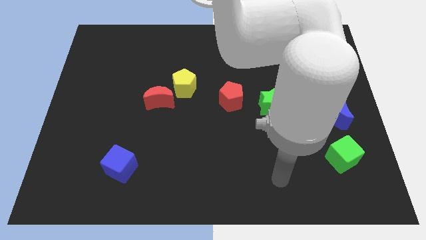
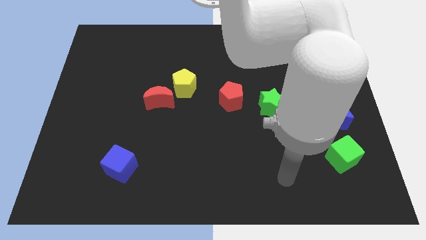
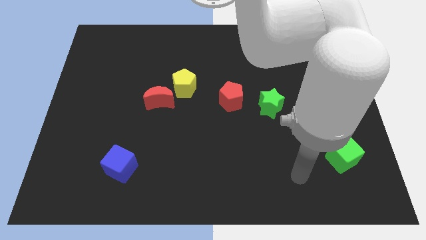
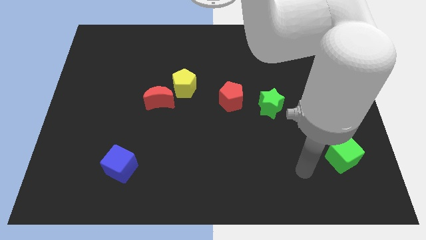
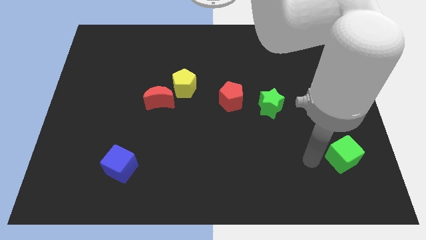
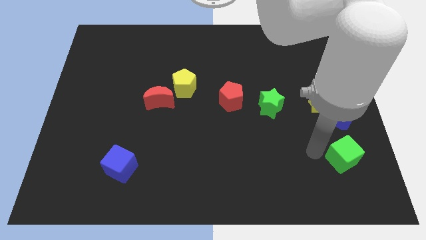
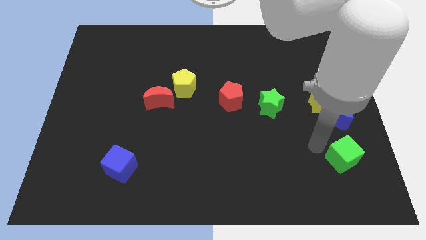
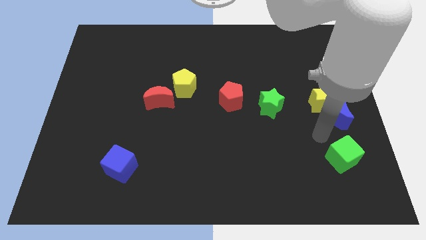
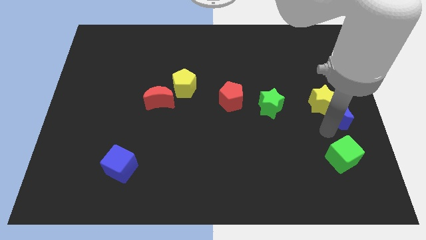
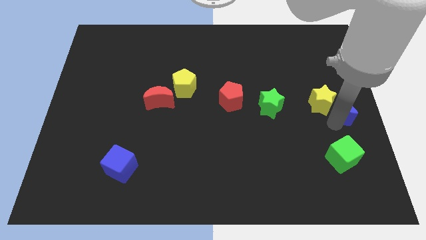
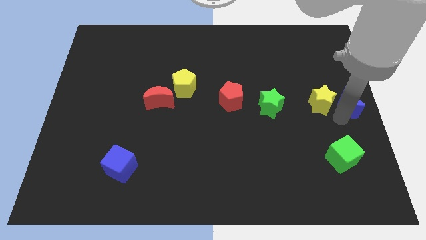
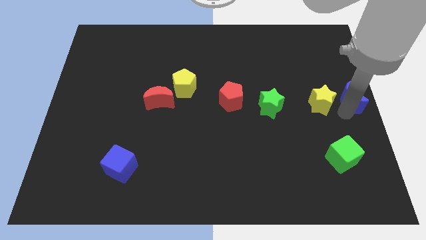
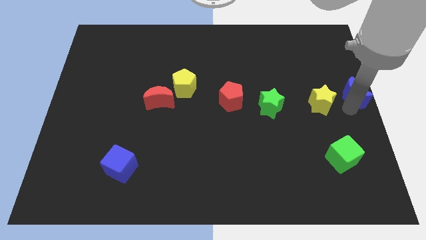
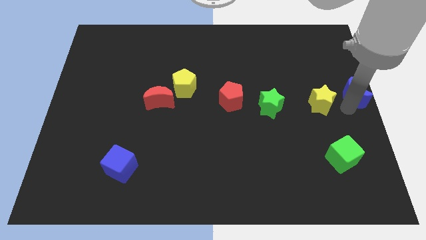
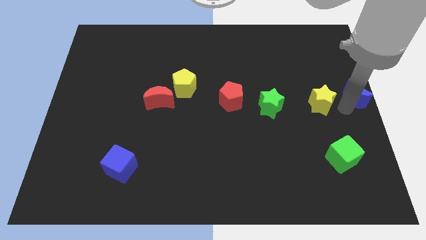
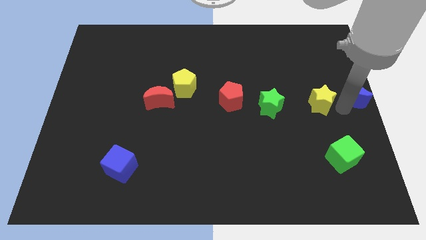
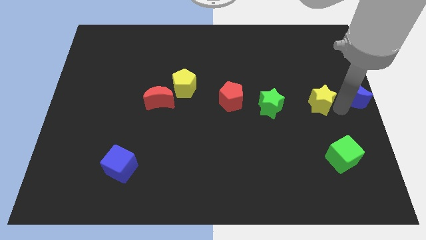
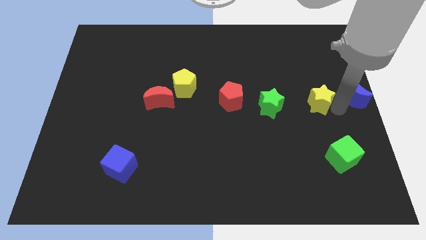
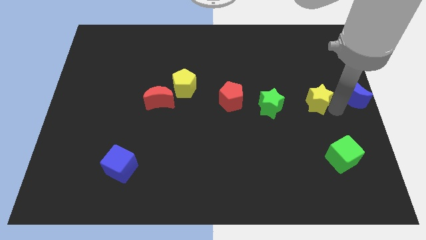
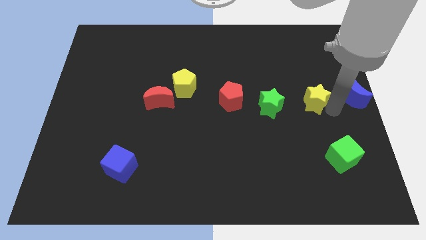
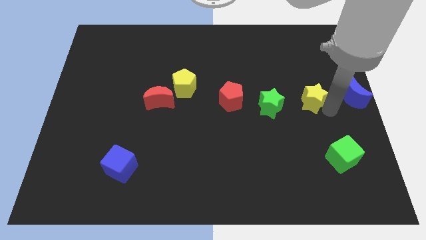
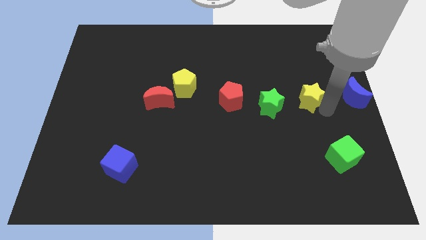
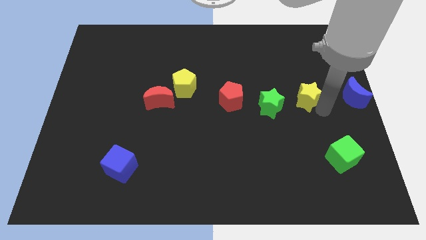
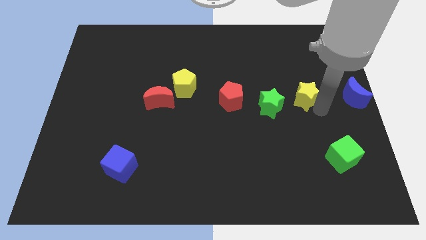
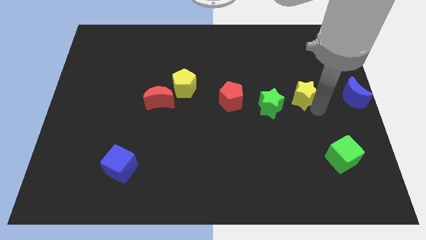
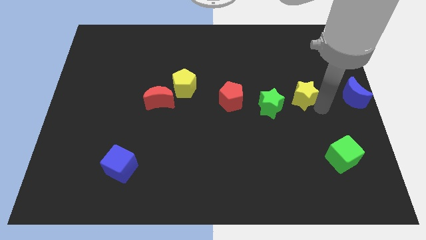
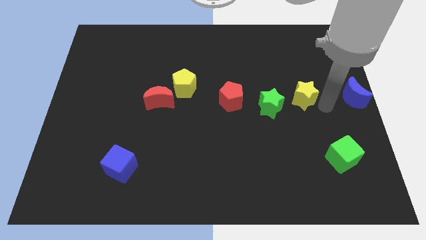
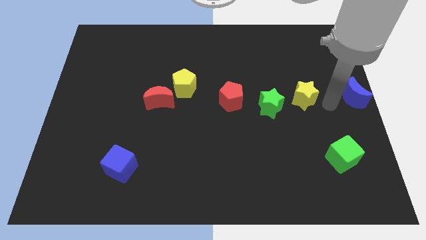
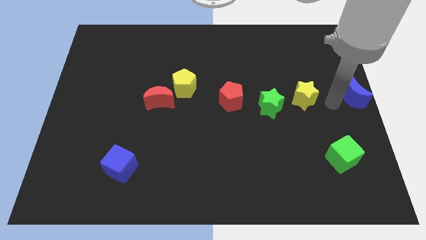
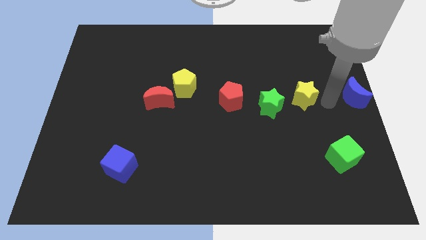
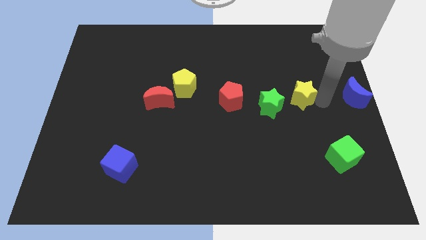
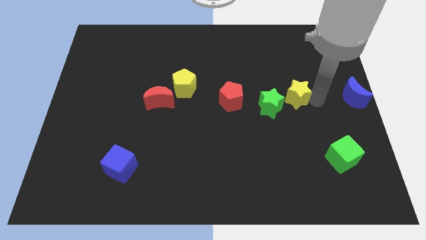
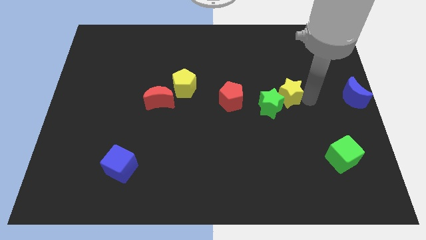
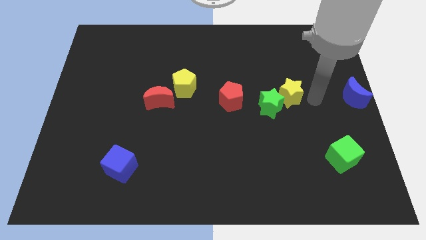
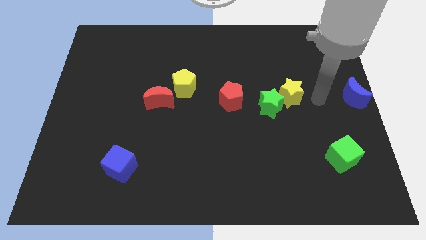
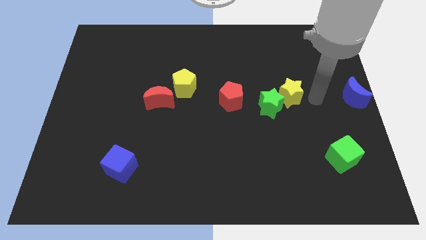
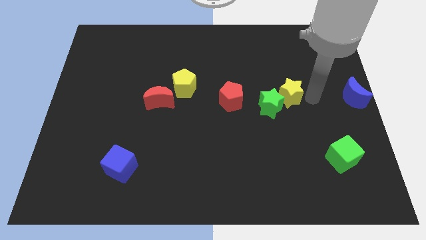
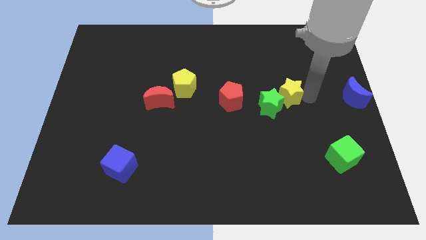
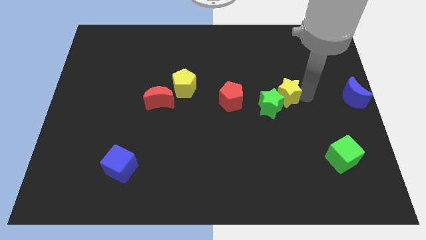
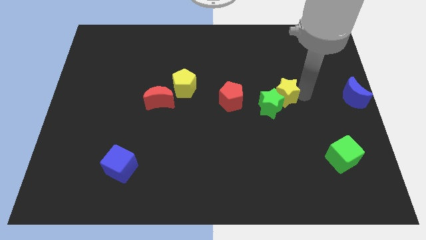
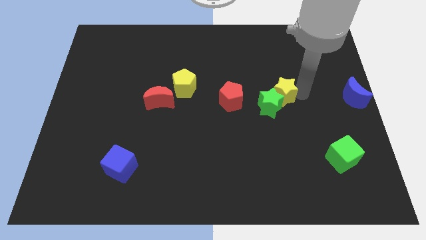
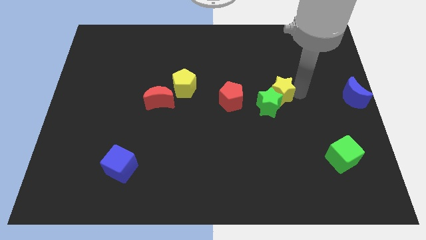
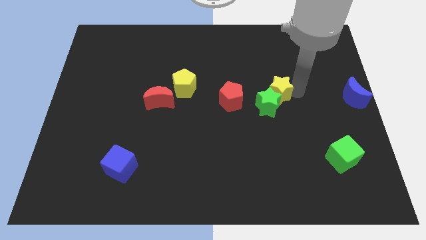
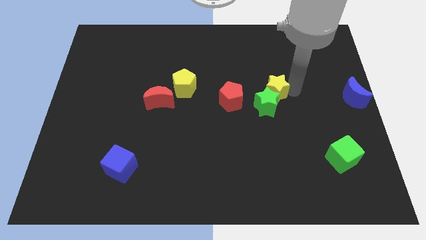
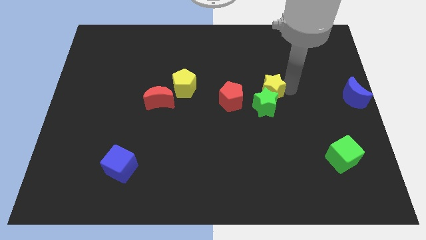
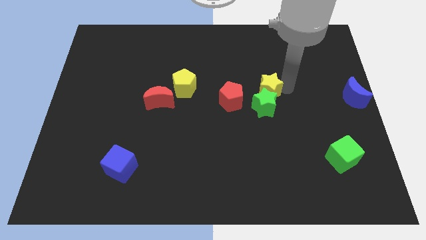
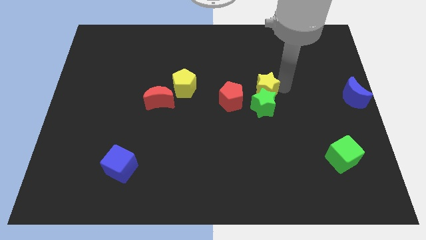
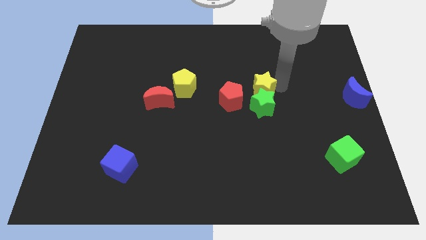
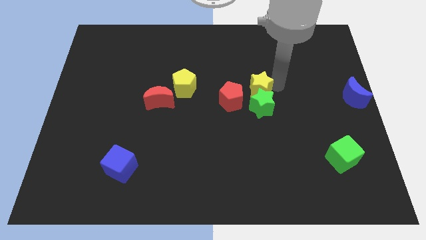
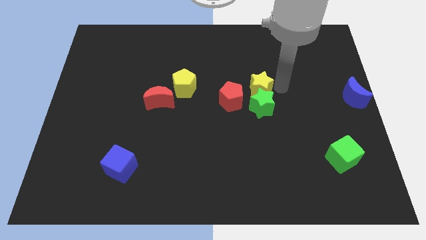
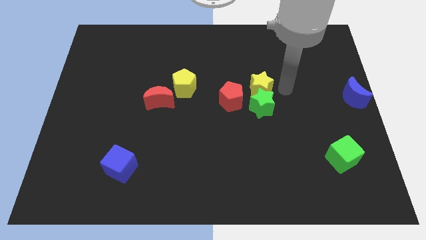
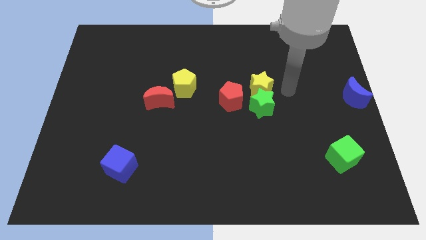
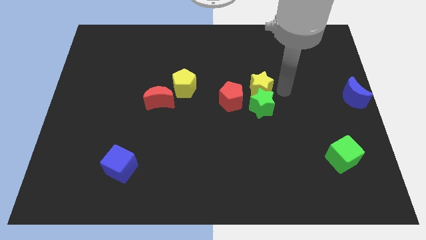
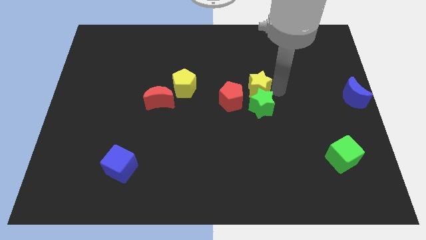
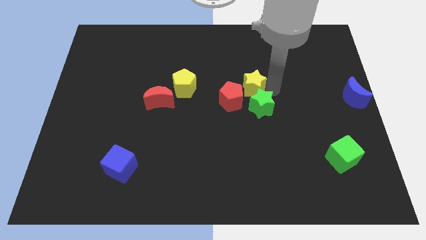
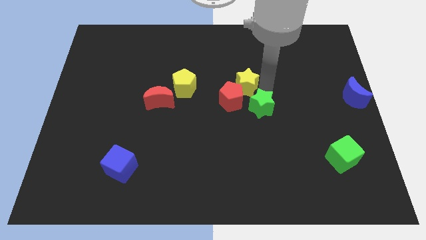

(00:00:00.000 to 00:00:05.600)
slide the yellow star close to the red pentagon

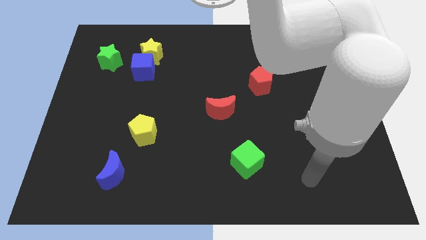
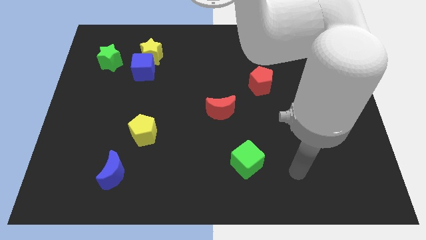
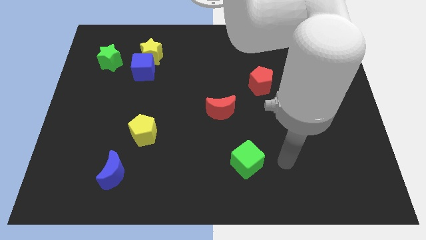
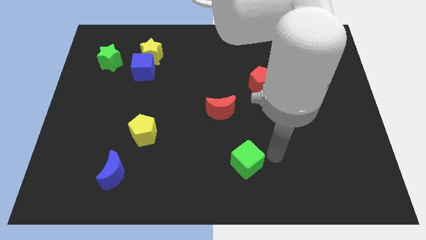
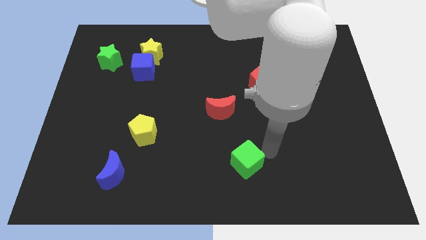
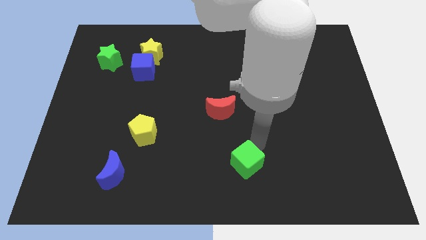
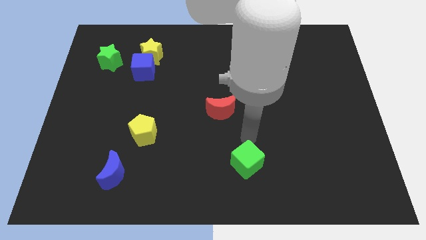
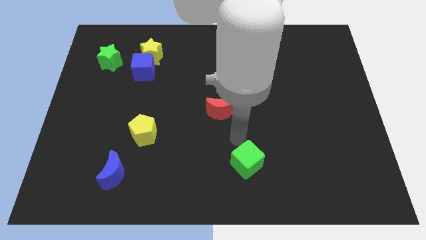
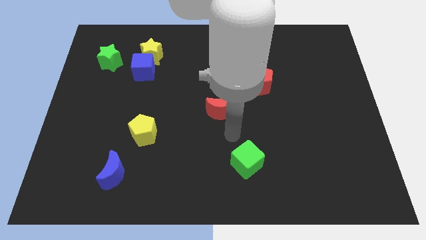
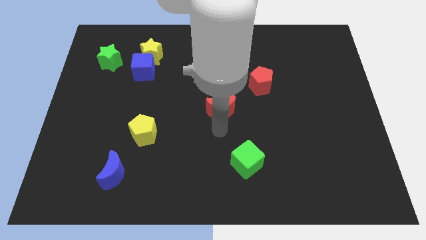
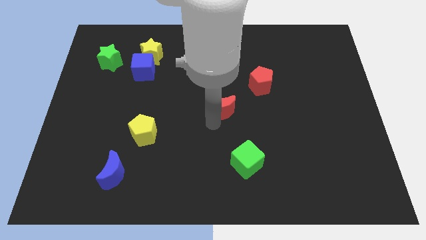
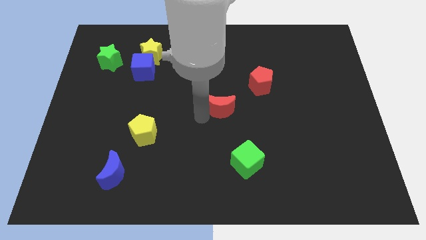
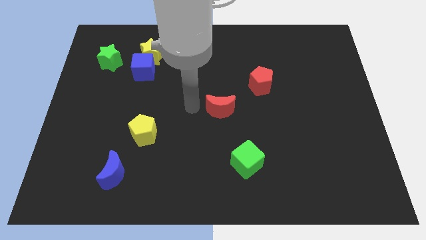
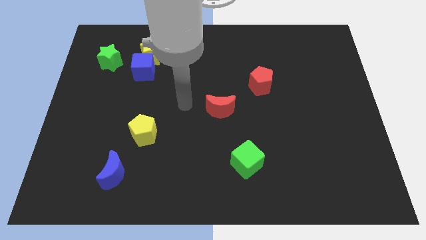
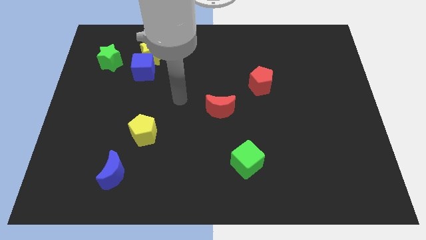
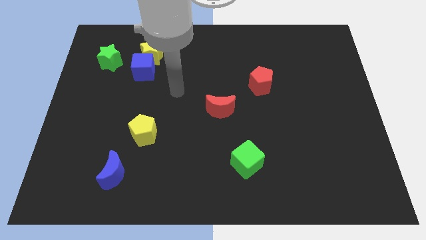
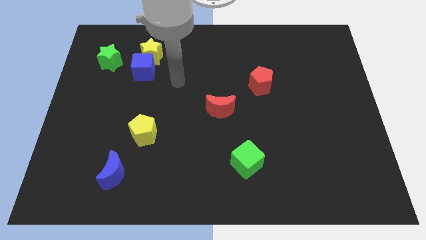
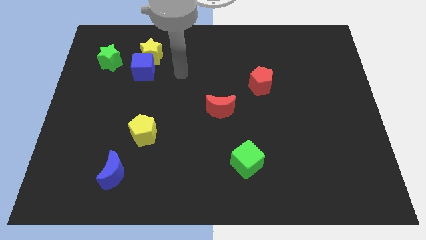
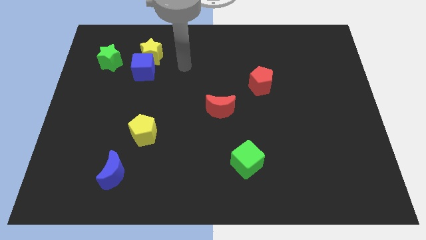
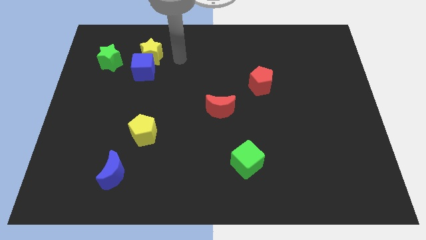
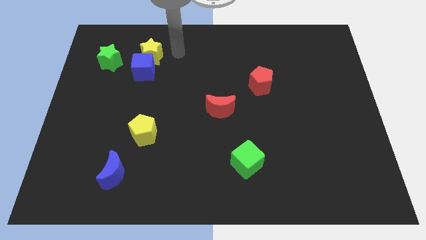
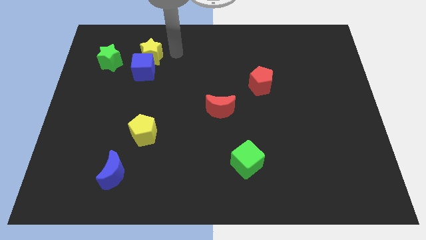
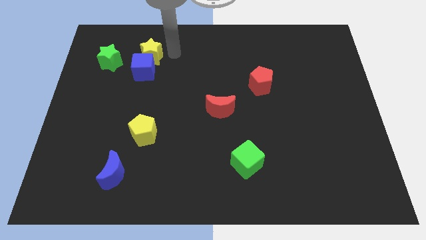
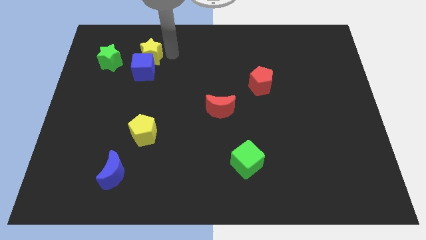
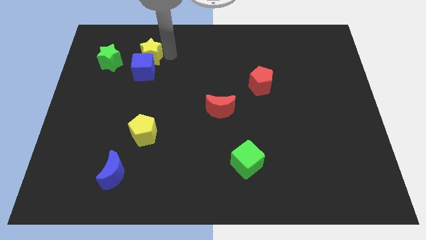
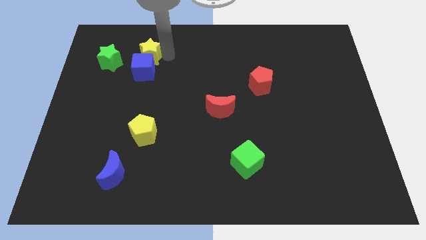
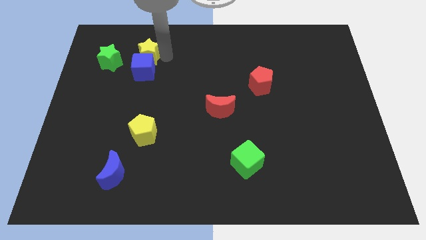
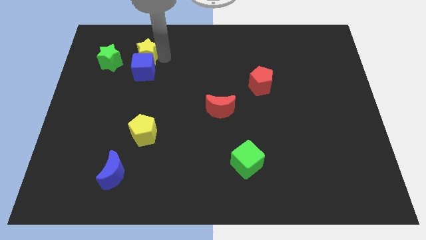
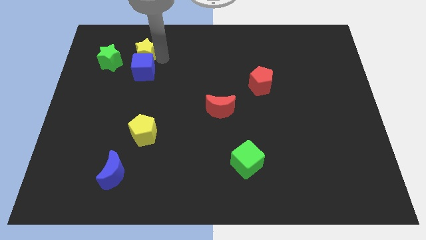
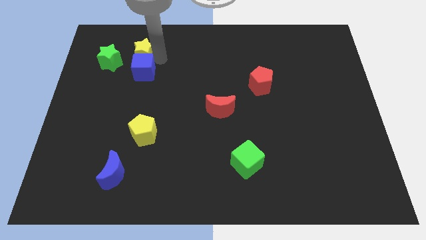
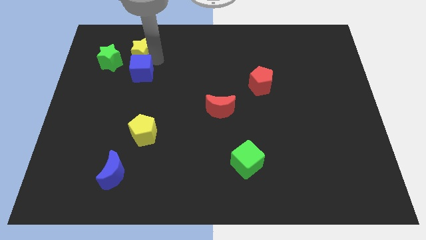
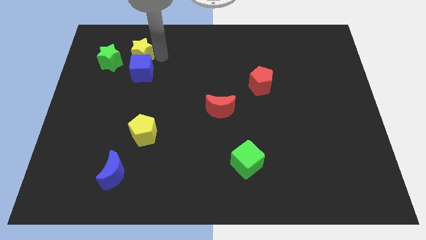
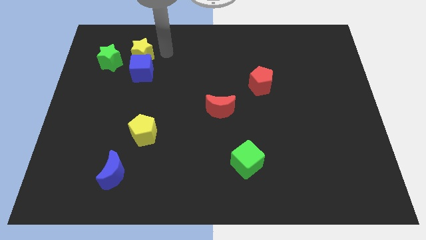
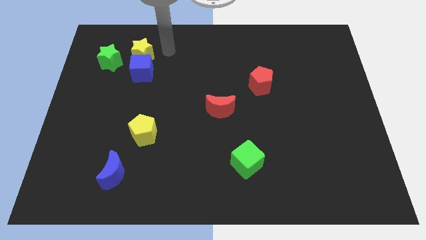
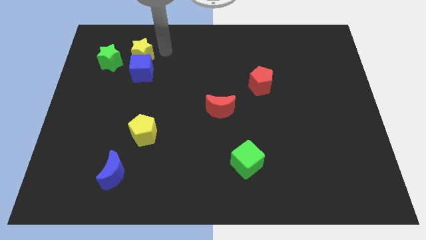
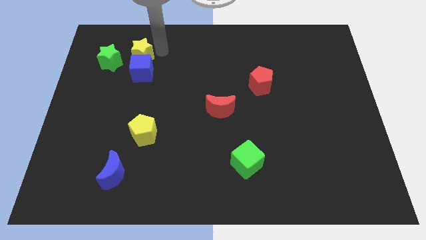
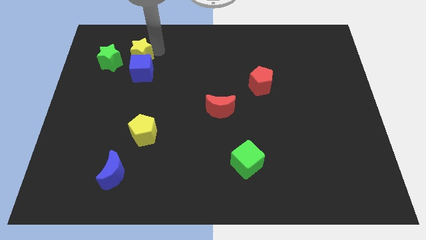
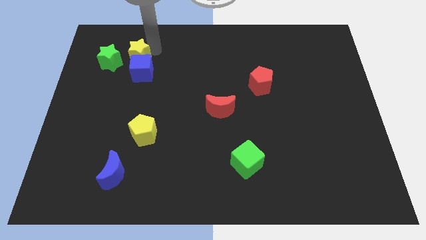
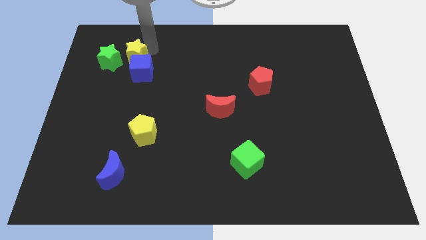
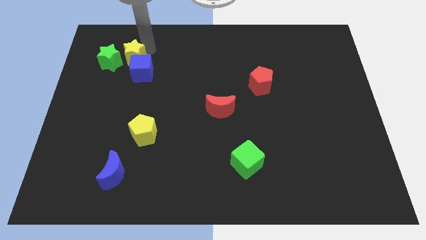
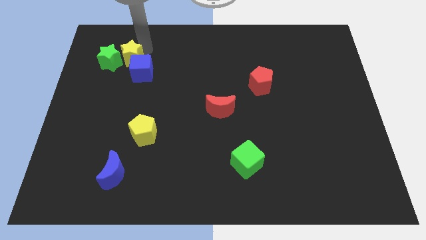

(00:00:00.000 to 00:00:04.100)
put the yellow star close to the green star
